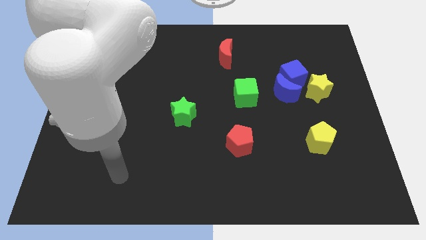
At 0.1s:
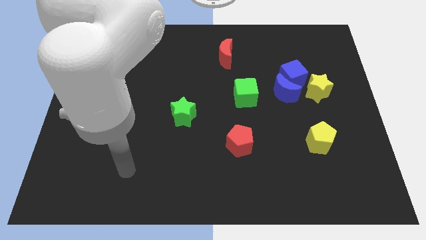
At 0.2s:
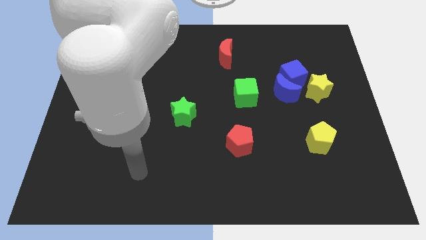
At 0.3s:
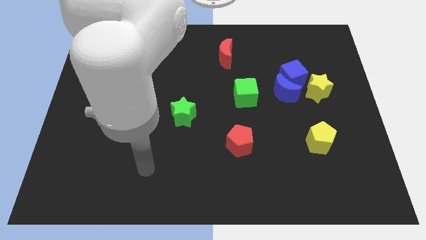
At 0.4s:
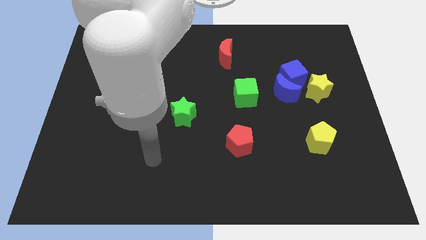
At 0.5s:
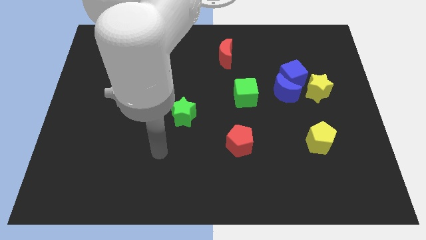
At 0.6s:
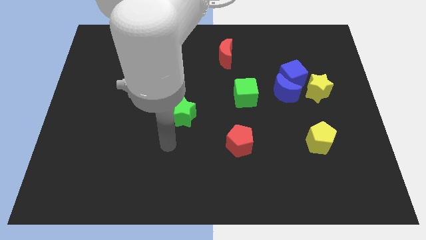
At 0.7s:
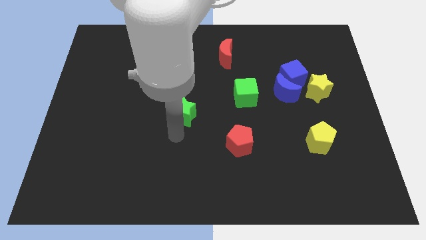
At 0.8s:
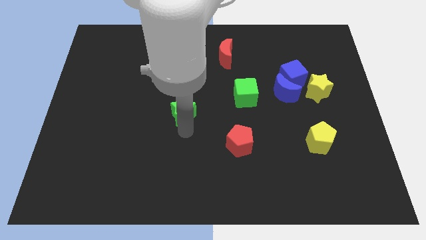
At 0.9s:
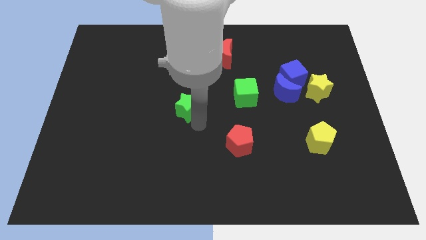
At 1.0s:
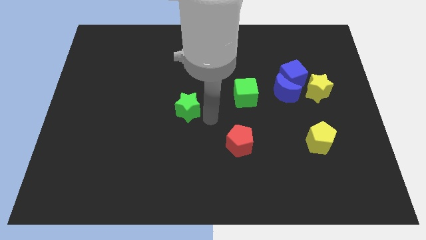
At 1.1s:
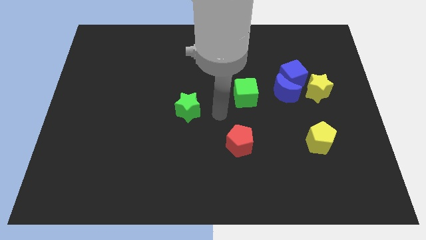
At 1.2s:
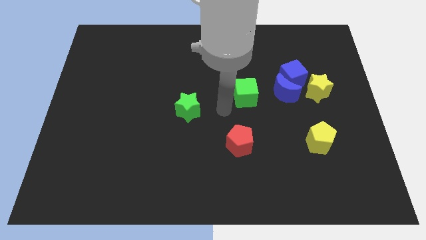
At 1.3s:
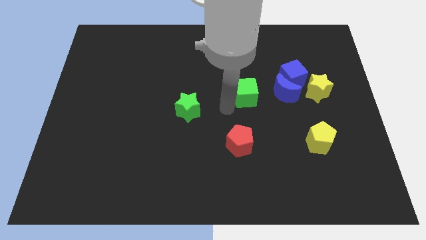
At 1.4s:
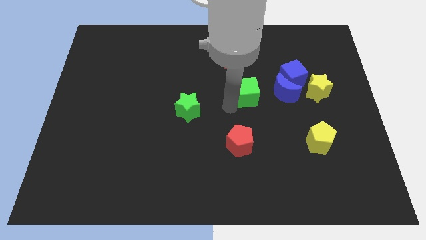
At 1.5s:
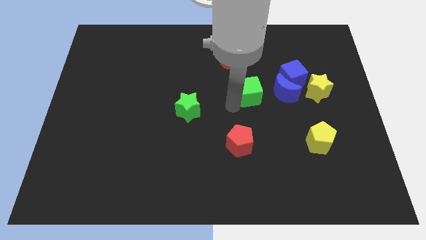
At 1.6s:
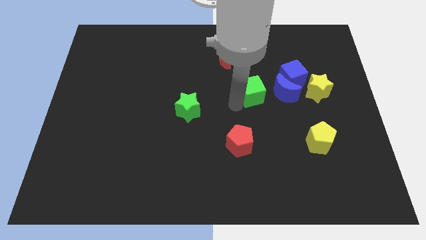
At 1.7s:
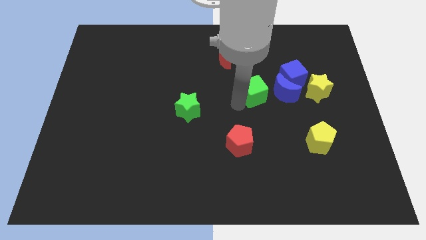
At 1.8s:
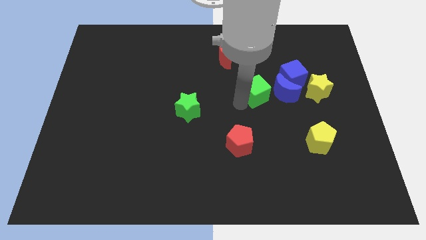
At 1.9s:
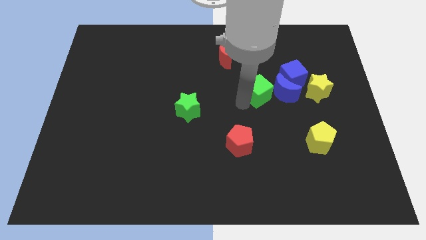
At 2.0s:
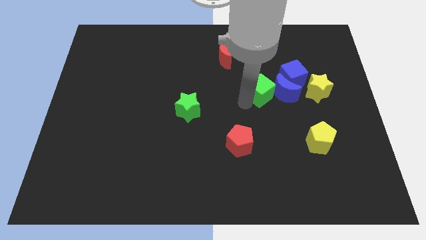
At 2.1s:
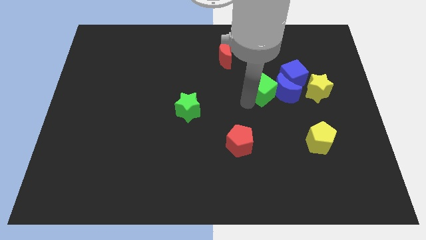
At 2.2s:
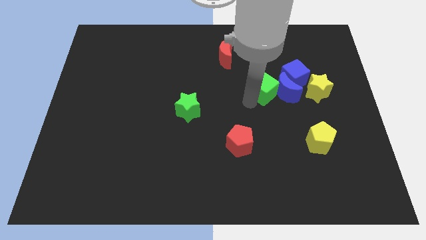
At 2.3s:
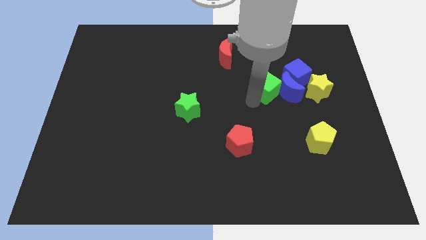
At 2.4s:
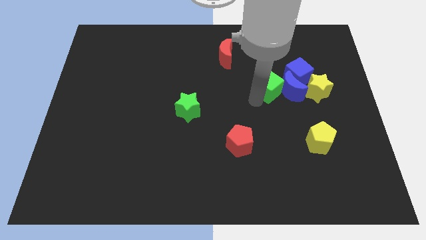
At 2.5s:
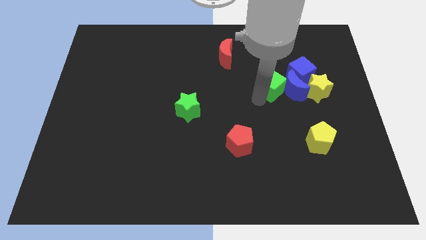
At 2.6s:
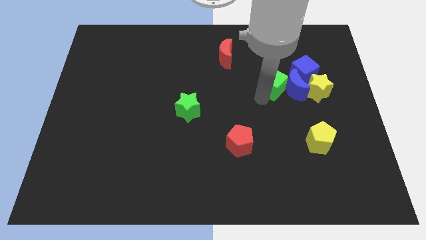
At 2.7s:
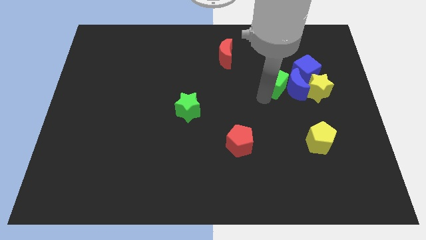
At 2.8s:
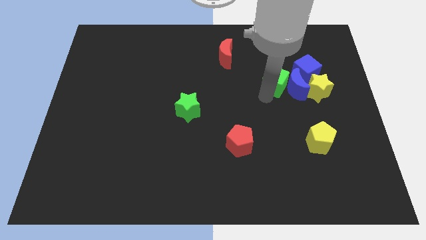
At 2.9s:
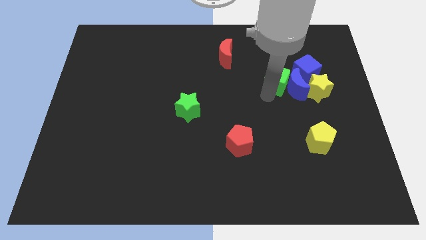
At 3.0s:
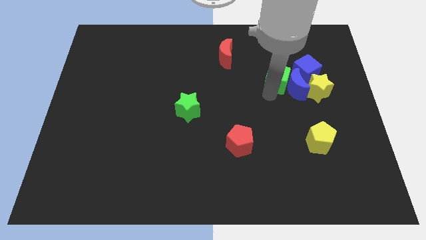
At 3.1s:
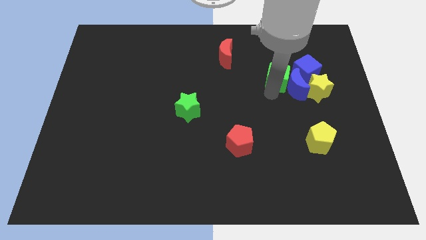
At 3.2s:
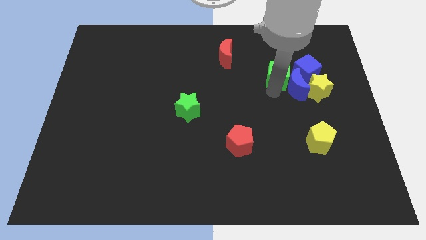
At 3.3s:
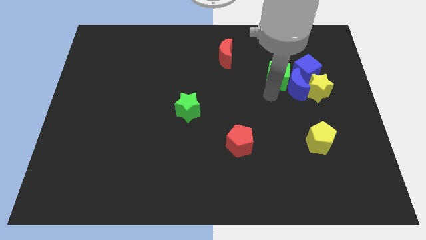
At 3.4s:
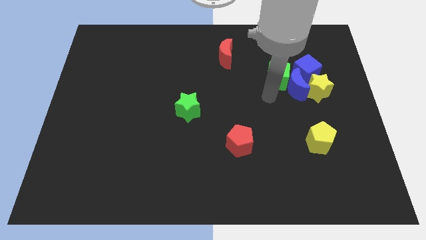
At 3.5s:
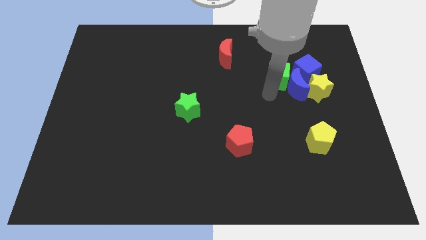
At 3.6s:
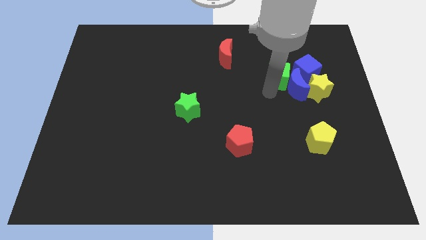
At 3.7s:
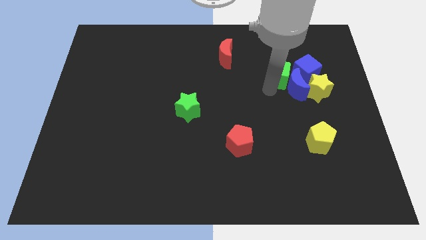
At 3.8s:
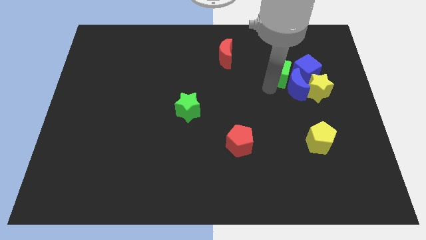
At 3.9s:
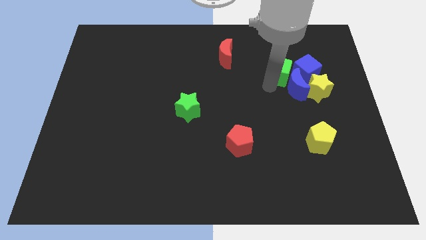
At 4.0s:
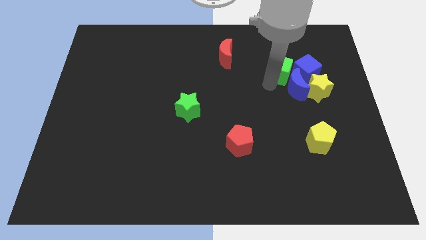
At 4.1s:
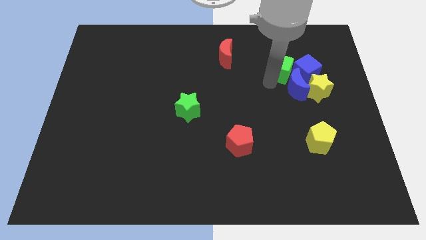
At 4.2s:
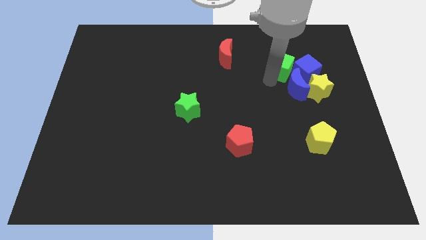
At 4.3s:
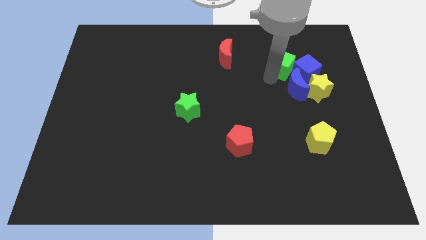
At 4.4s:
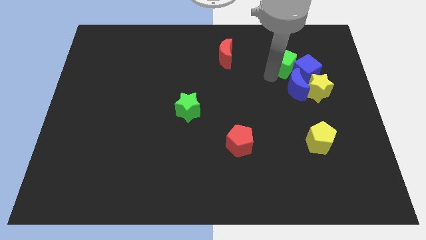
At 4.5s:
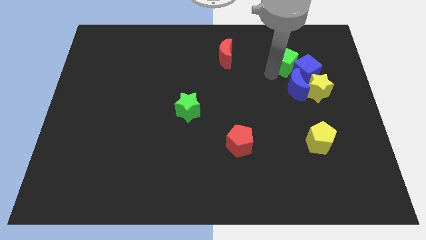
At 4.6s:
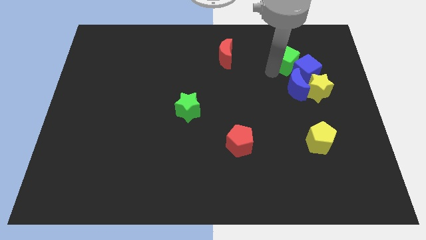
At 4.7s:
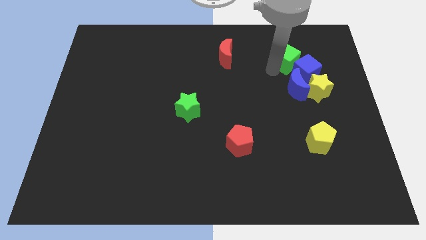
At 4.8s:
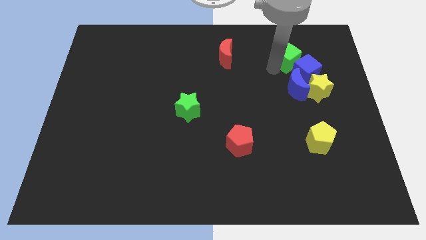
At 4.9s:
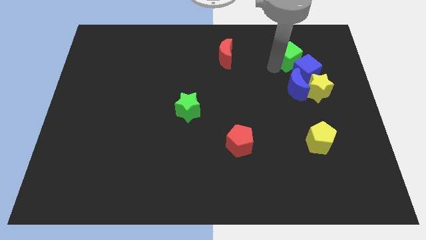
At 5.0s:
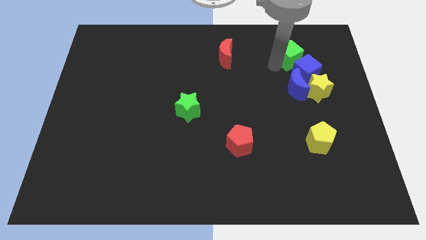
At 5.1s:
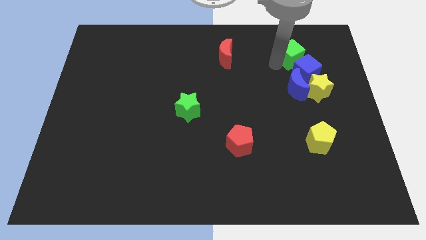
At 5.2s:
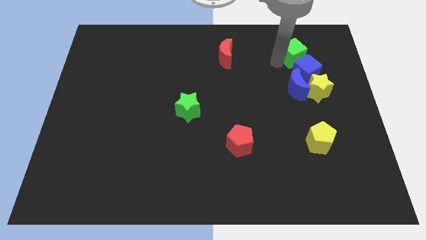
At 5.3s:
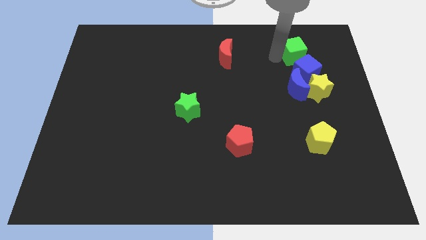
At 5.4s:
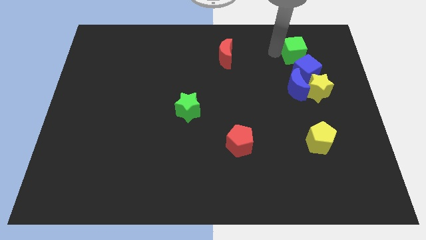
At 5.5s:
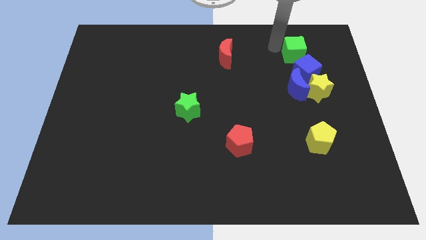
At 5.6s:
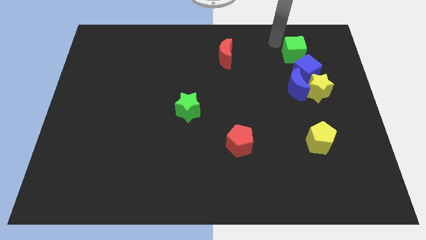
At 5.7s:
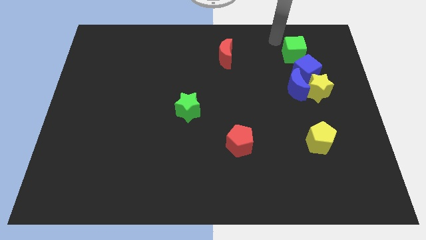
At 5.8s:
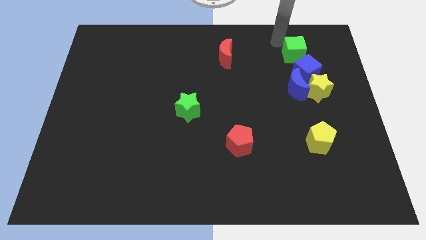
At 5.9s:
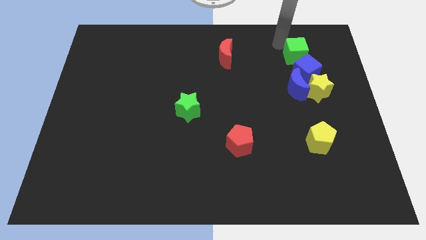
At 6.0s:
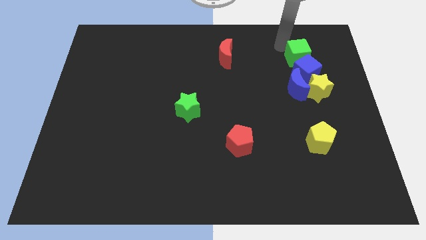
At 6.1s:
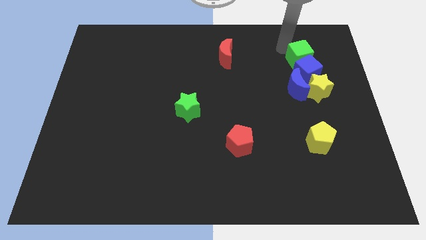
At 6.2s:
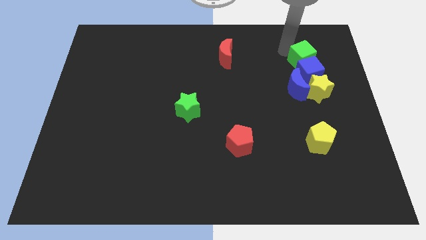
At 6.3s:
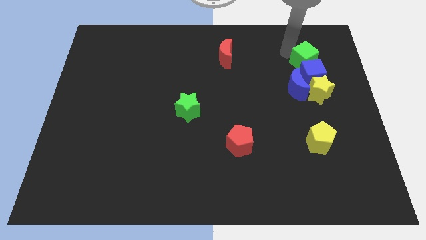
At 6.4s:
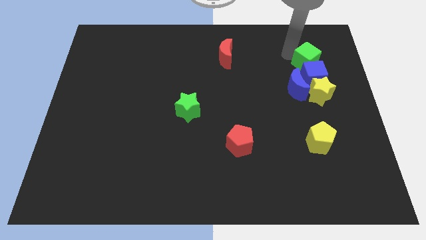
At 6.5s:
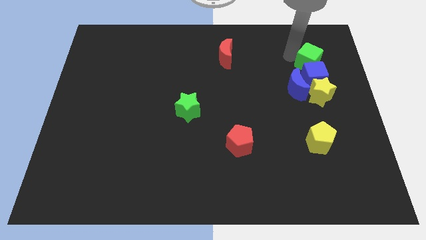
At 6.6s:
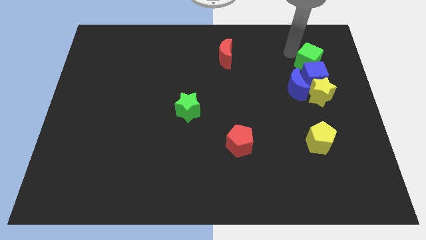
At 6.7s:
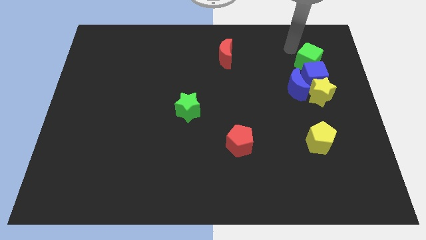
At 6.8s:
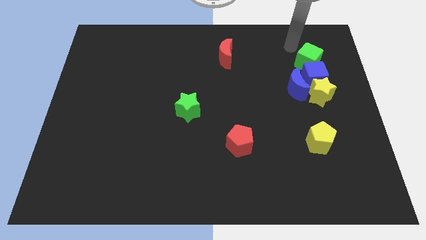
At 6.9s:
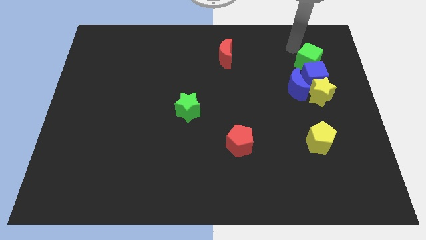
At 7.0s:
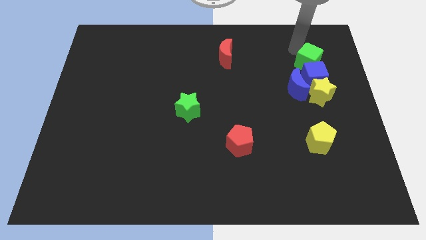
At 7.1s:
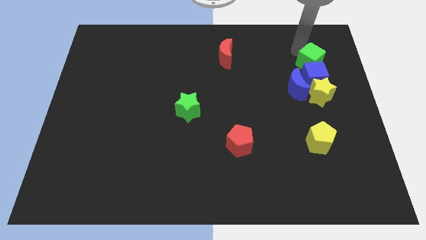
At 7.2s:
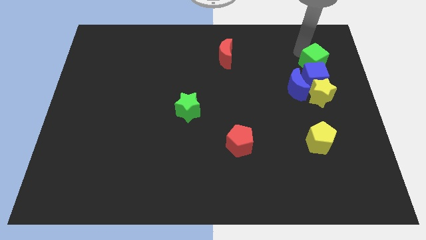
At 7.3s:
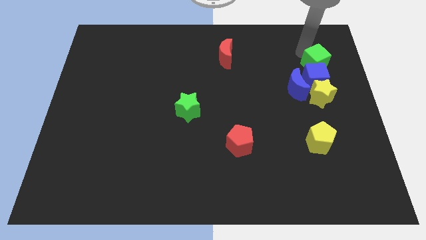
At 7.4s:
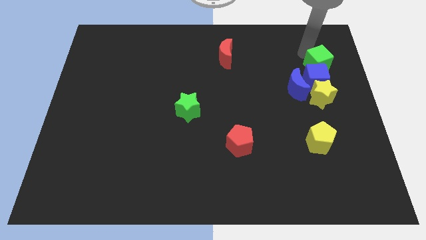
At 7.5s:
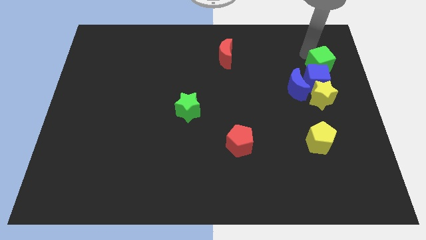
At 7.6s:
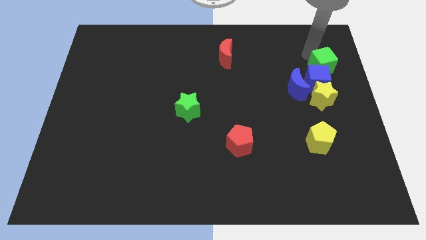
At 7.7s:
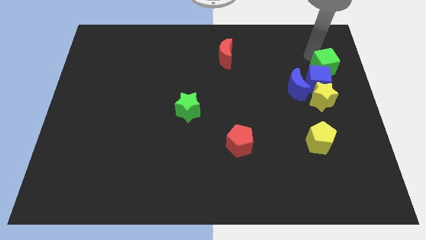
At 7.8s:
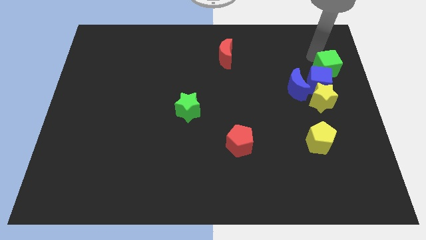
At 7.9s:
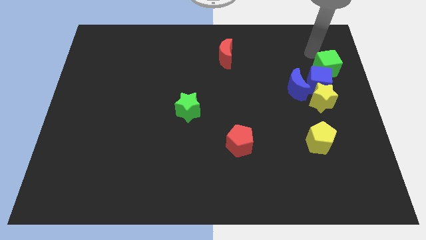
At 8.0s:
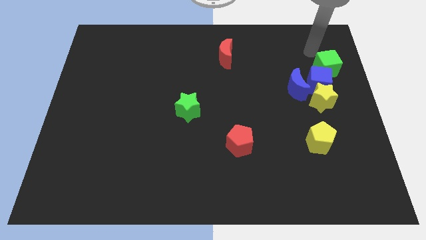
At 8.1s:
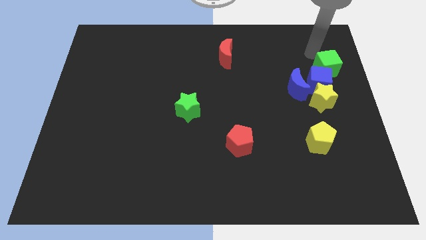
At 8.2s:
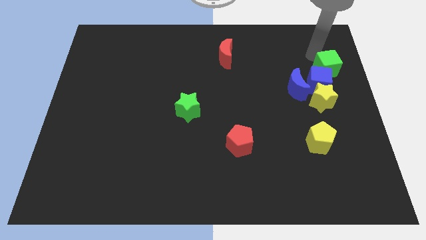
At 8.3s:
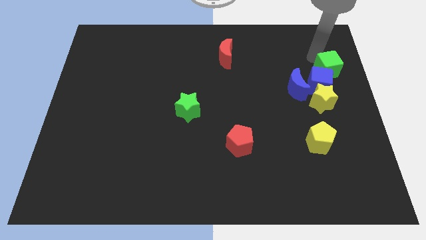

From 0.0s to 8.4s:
move the green cube to the right side of the board
